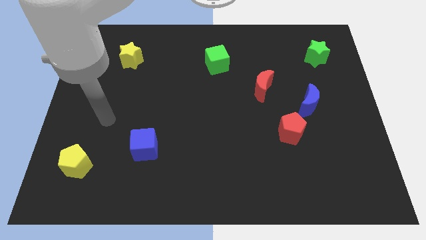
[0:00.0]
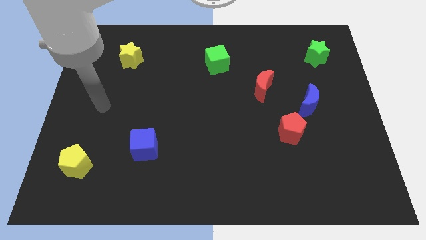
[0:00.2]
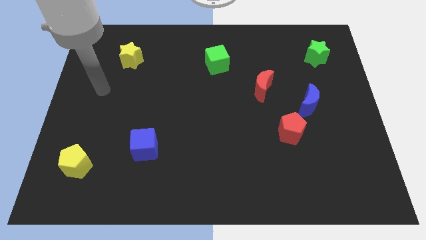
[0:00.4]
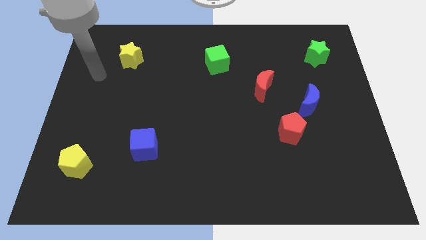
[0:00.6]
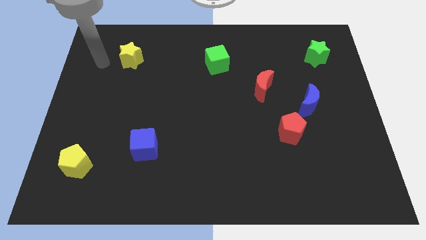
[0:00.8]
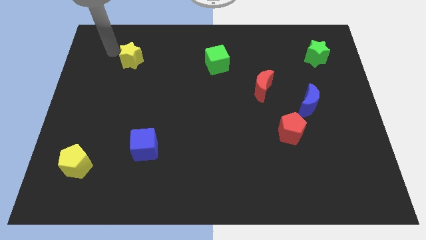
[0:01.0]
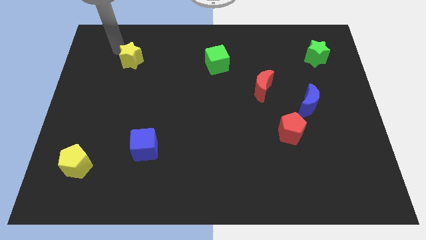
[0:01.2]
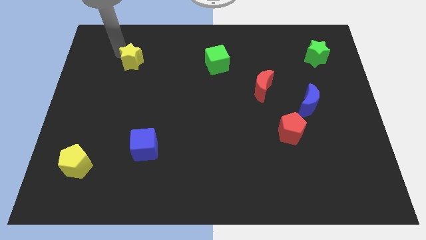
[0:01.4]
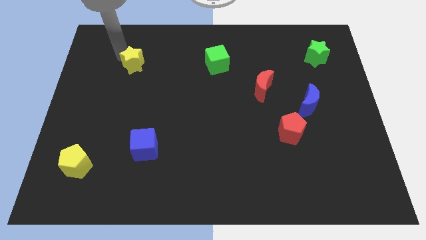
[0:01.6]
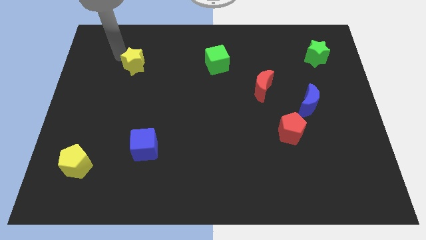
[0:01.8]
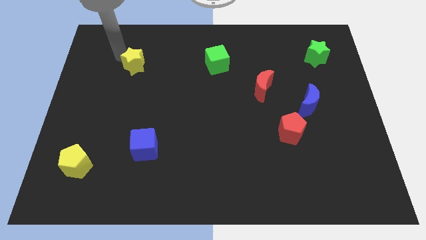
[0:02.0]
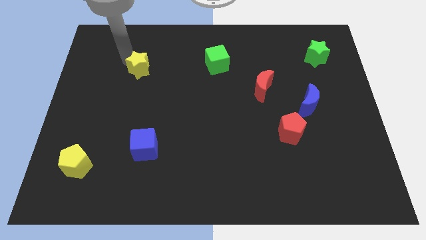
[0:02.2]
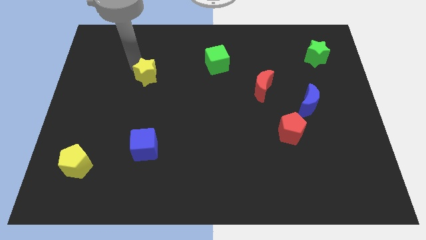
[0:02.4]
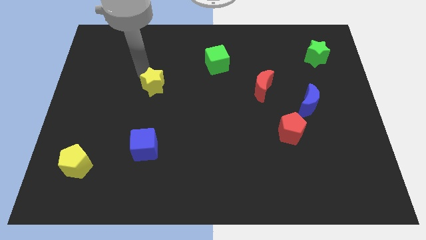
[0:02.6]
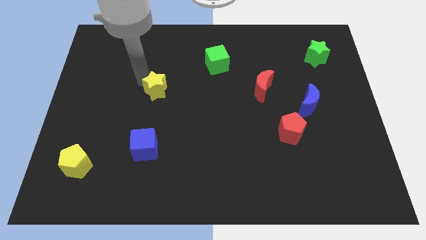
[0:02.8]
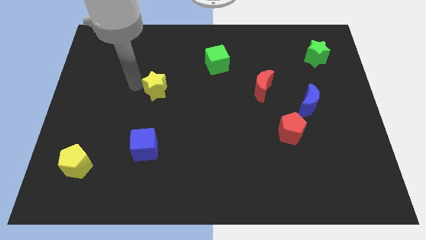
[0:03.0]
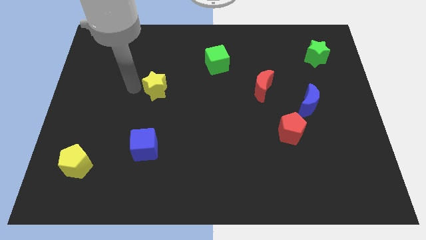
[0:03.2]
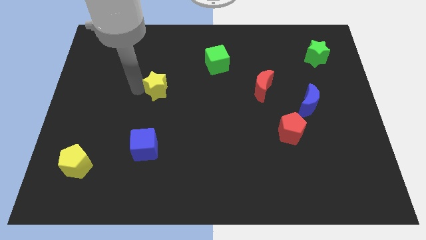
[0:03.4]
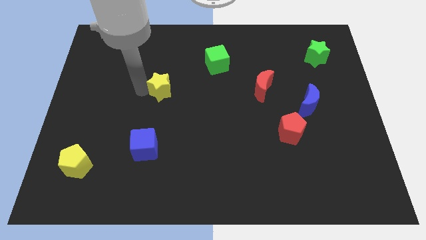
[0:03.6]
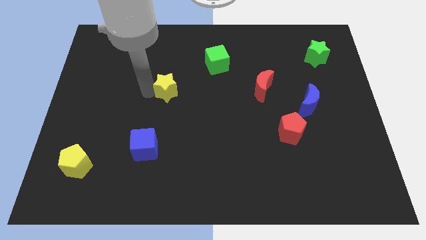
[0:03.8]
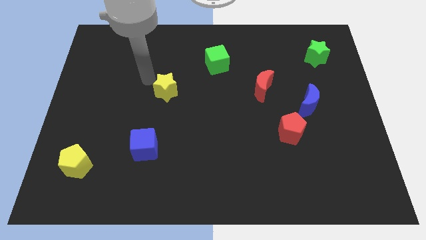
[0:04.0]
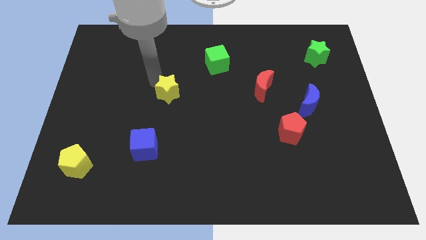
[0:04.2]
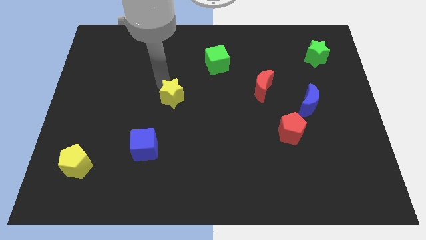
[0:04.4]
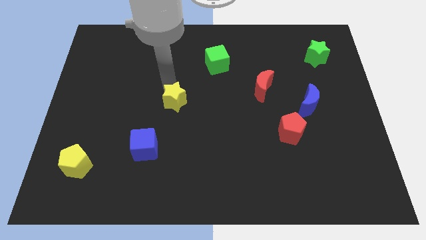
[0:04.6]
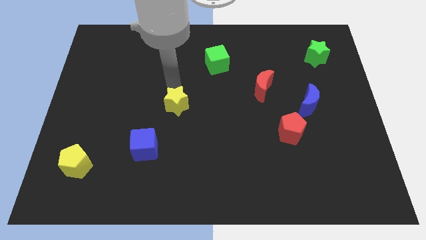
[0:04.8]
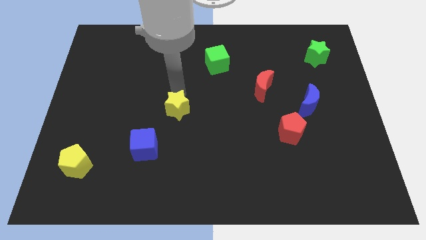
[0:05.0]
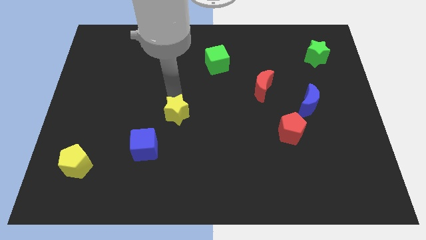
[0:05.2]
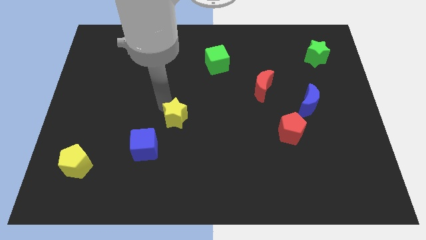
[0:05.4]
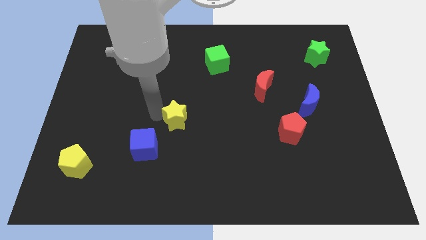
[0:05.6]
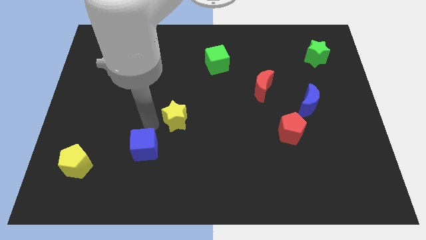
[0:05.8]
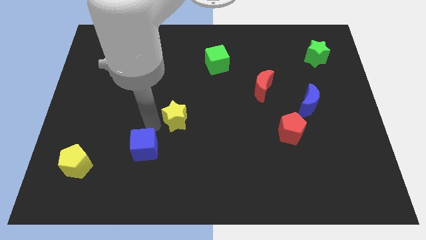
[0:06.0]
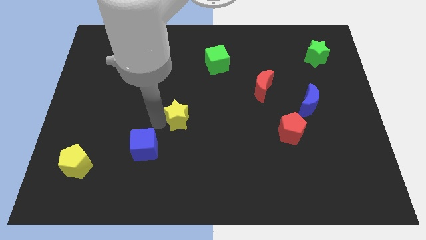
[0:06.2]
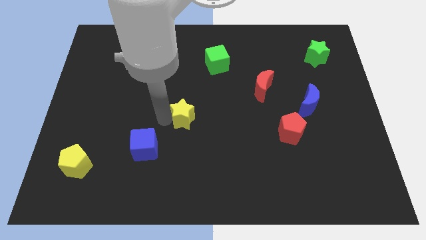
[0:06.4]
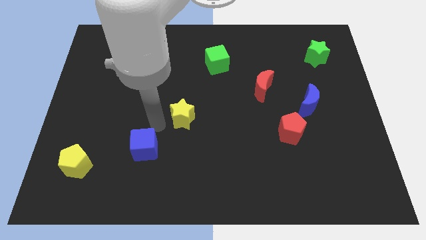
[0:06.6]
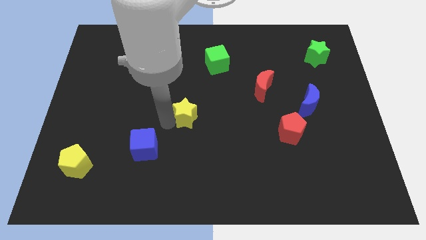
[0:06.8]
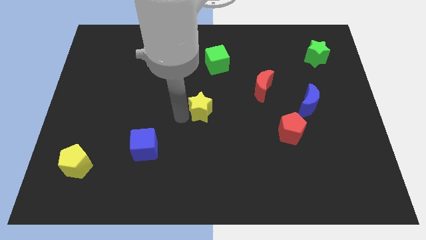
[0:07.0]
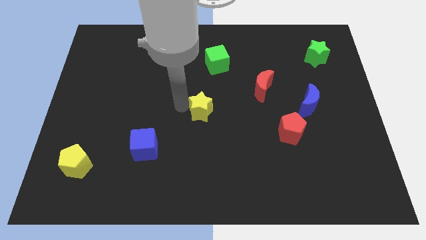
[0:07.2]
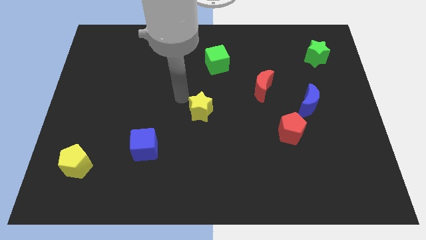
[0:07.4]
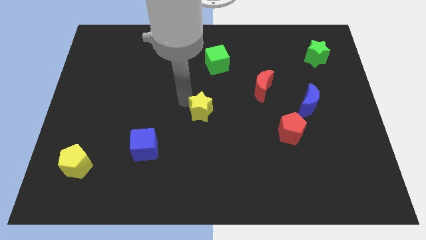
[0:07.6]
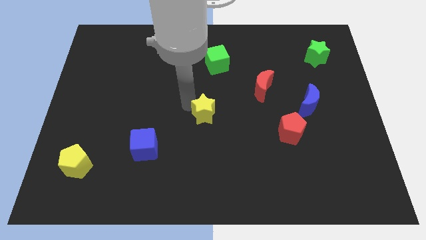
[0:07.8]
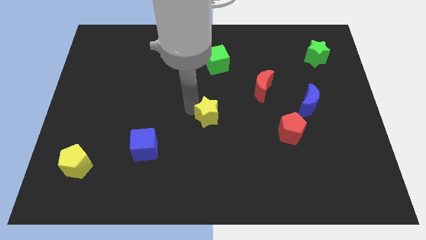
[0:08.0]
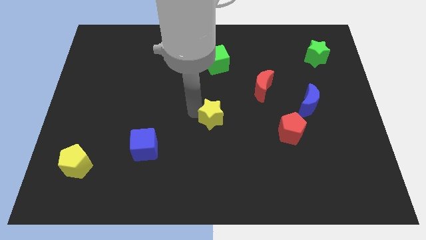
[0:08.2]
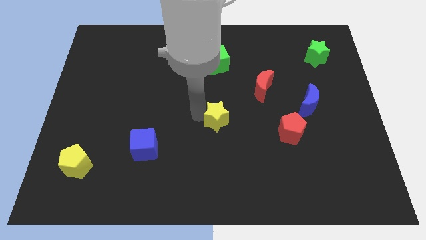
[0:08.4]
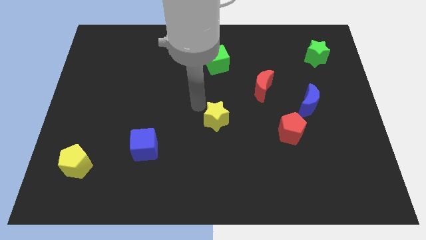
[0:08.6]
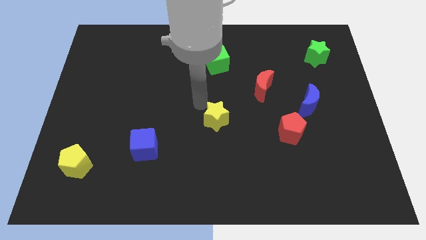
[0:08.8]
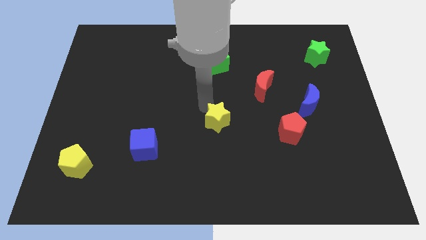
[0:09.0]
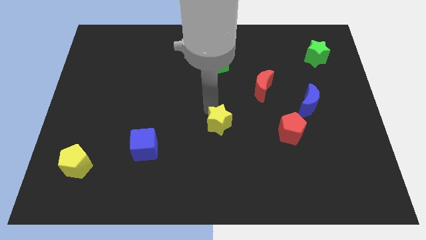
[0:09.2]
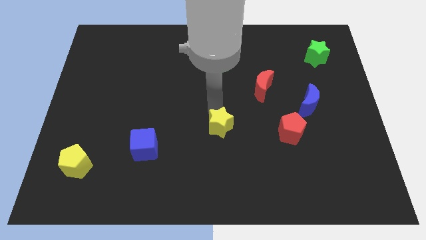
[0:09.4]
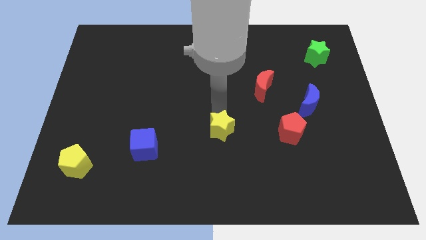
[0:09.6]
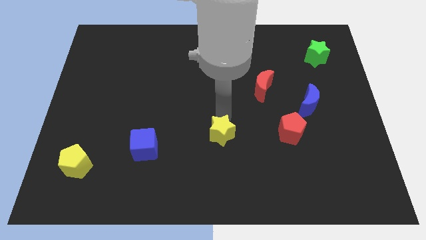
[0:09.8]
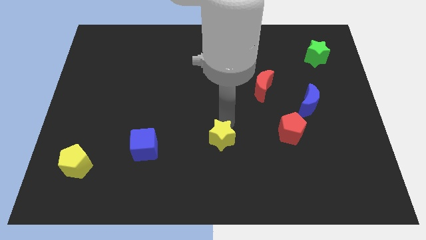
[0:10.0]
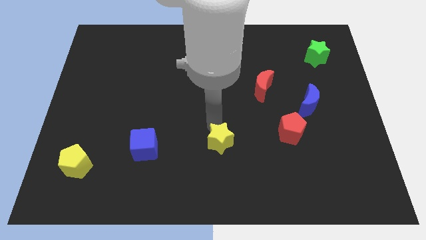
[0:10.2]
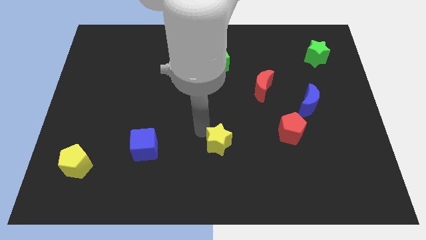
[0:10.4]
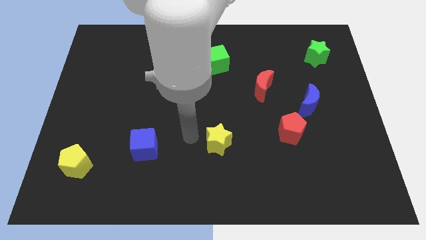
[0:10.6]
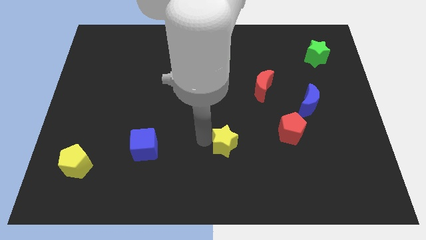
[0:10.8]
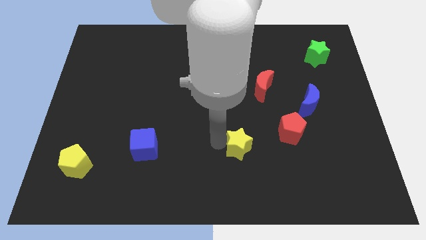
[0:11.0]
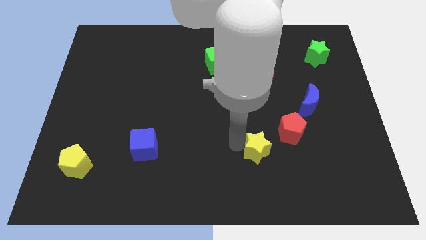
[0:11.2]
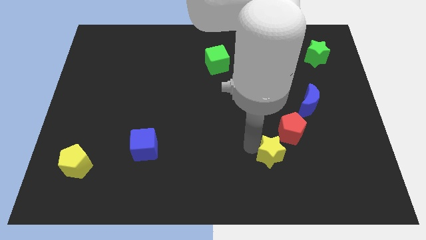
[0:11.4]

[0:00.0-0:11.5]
slide the yellow star below the red pentagon

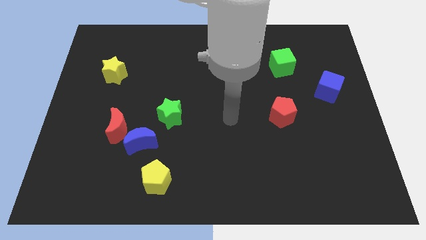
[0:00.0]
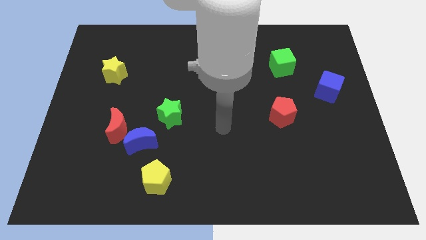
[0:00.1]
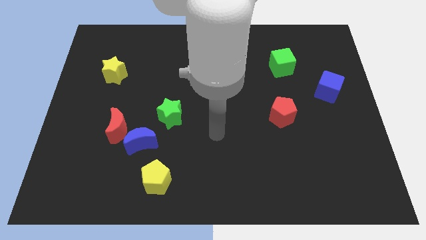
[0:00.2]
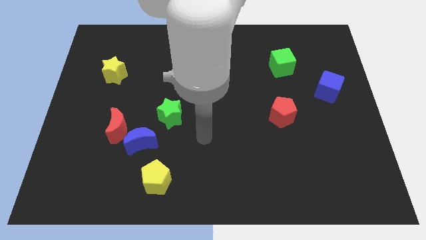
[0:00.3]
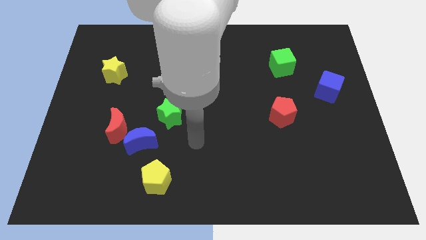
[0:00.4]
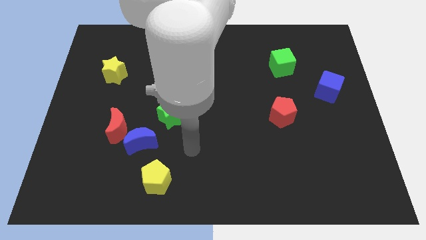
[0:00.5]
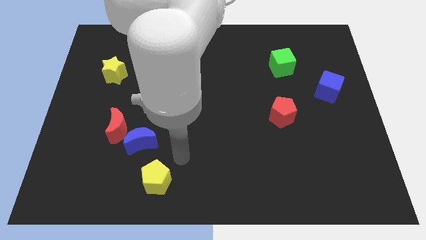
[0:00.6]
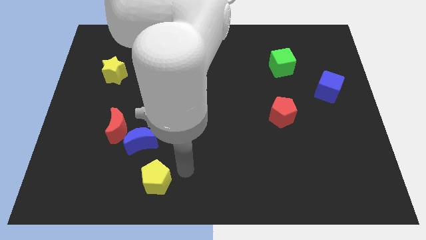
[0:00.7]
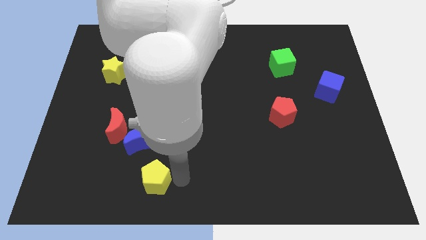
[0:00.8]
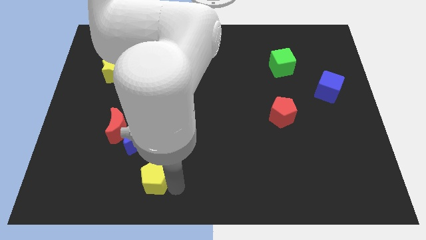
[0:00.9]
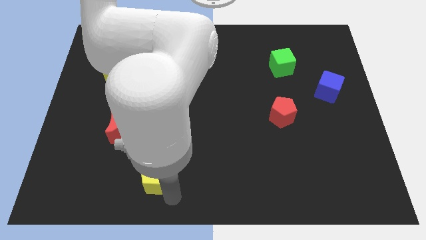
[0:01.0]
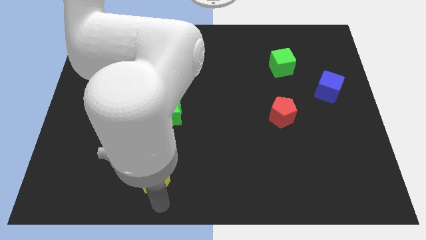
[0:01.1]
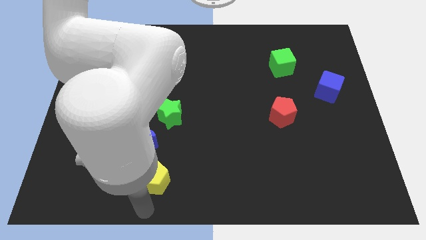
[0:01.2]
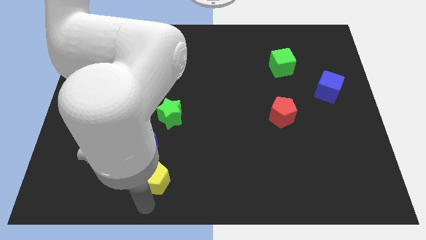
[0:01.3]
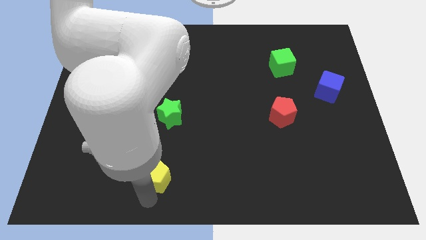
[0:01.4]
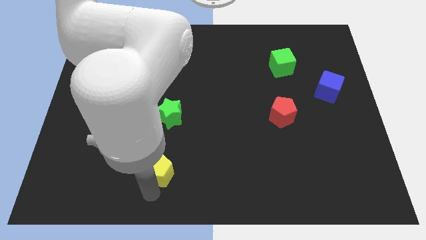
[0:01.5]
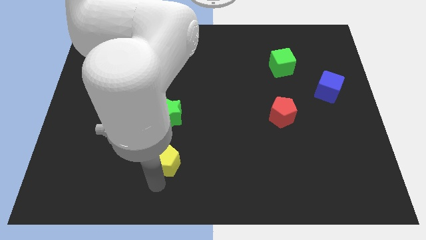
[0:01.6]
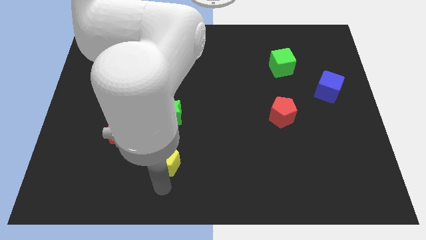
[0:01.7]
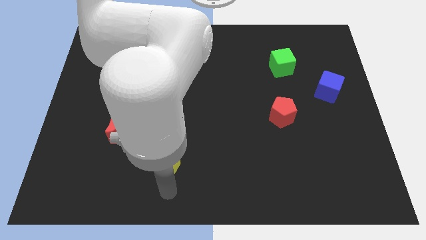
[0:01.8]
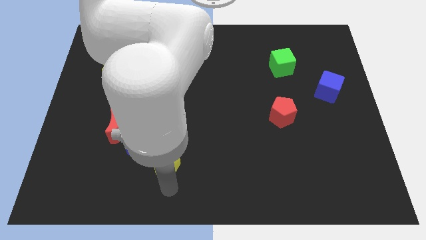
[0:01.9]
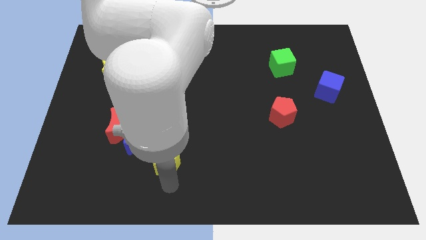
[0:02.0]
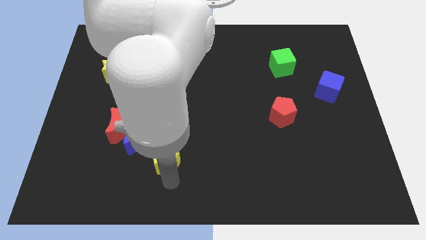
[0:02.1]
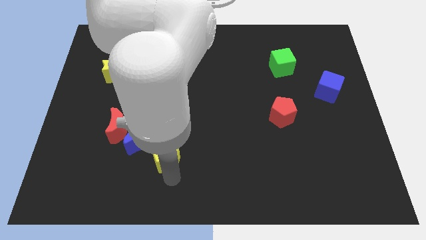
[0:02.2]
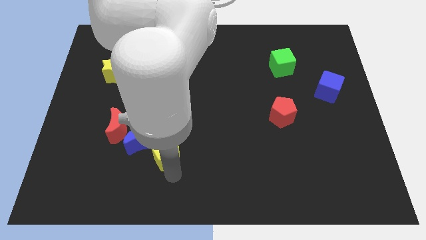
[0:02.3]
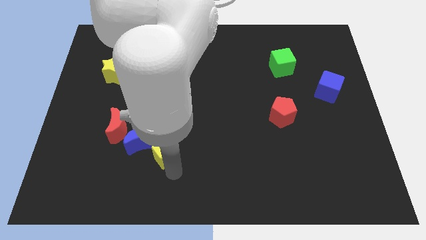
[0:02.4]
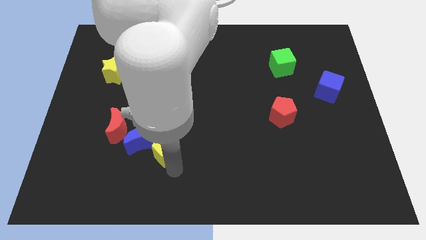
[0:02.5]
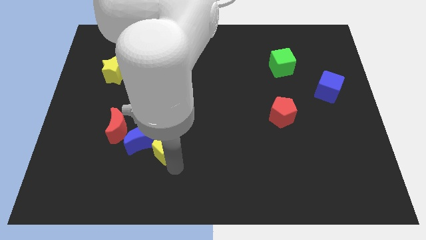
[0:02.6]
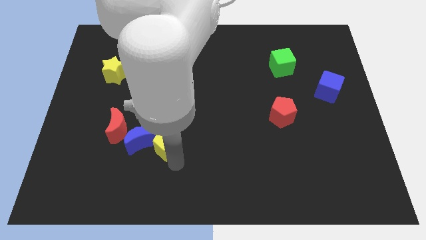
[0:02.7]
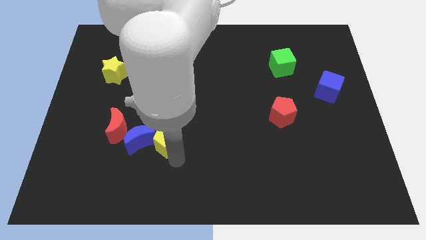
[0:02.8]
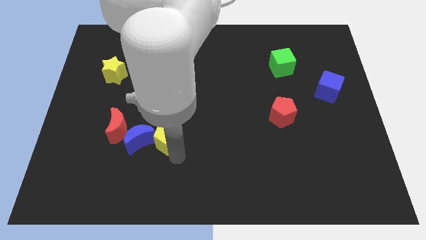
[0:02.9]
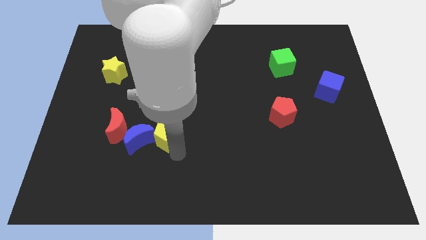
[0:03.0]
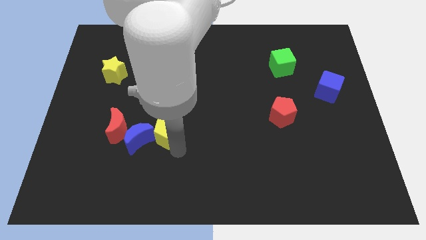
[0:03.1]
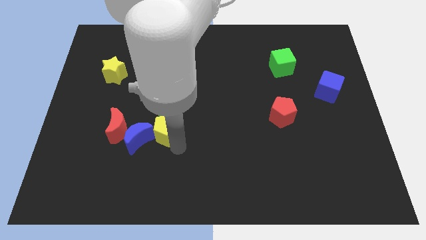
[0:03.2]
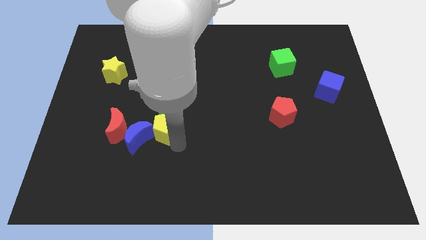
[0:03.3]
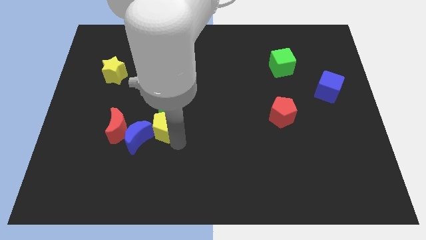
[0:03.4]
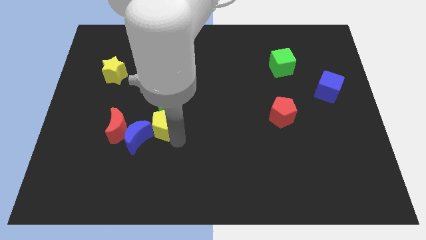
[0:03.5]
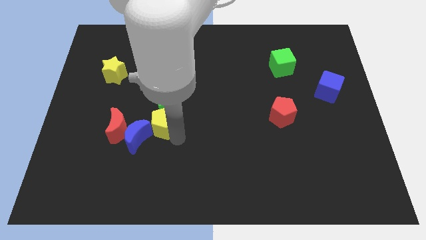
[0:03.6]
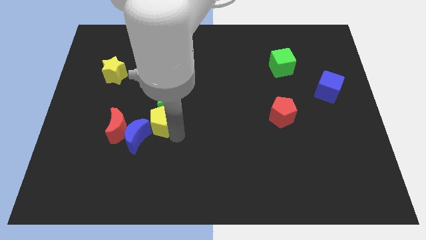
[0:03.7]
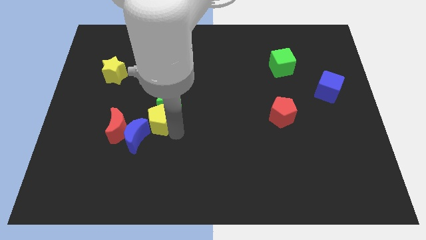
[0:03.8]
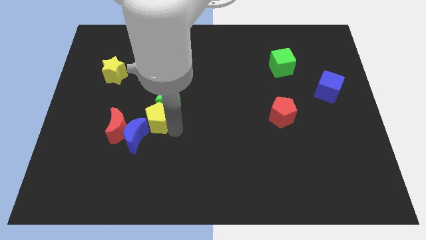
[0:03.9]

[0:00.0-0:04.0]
slide the yellow pentagon diagonally up and to the right of the red moon
